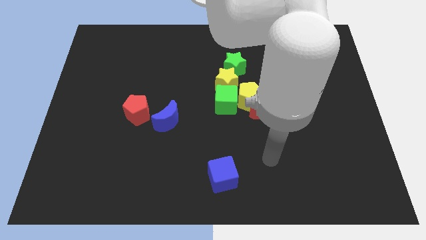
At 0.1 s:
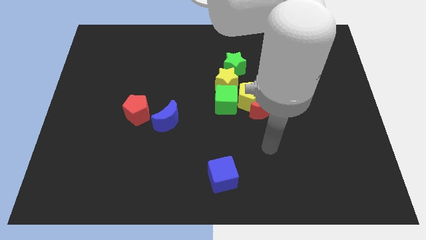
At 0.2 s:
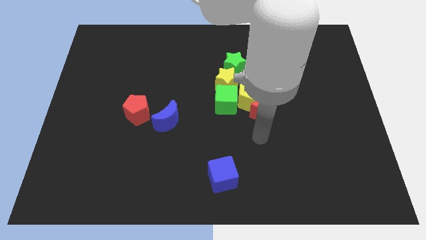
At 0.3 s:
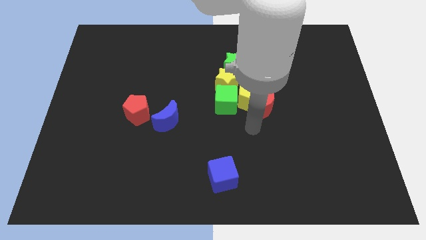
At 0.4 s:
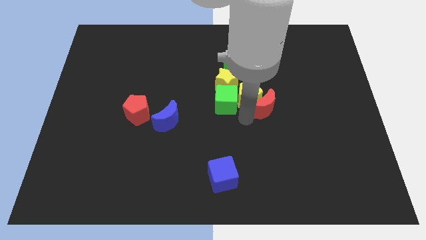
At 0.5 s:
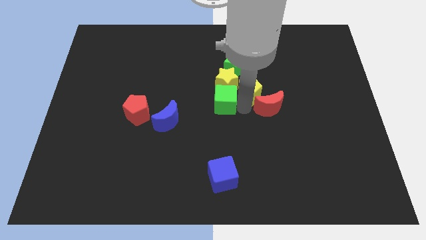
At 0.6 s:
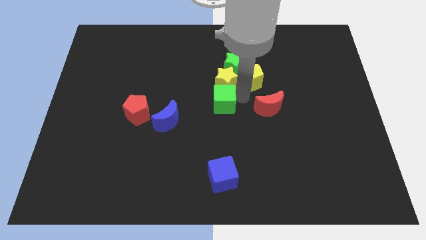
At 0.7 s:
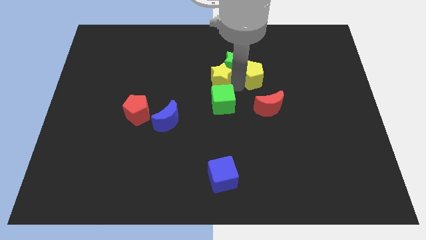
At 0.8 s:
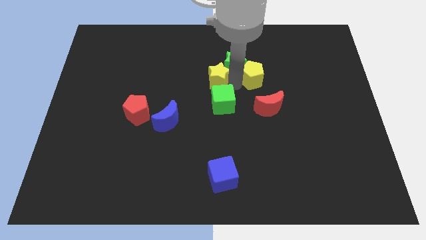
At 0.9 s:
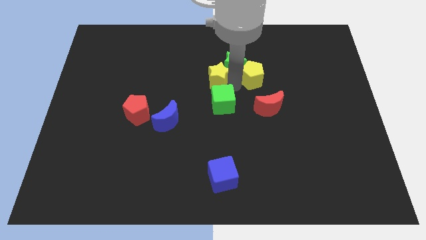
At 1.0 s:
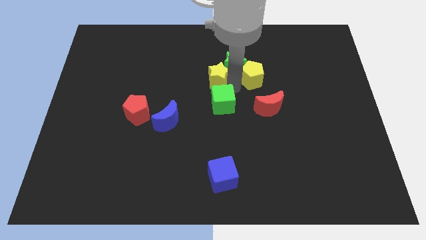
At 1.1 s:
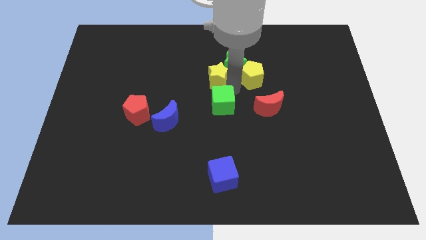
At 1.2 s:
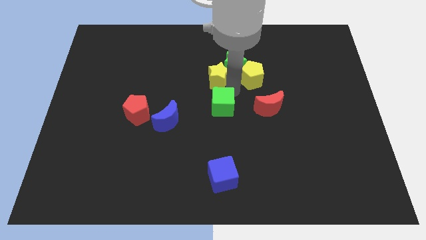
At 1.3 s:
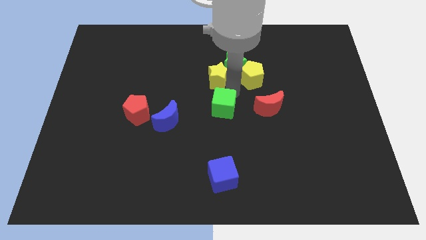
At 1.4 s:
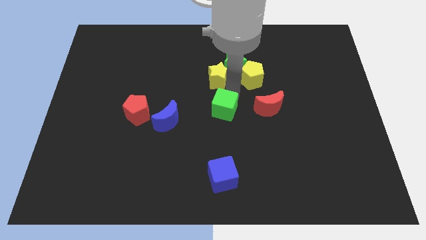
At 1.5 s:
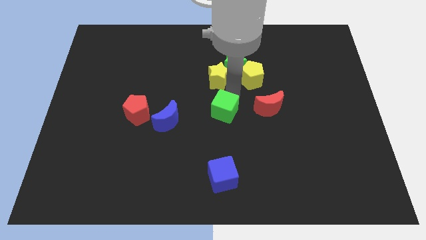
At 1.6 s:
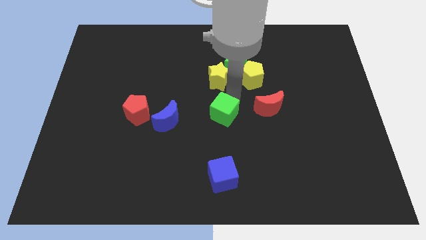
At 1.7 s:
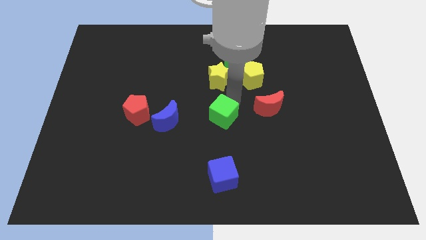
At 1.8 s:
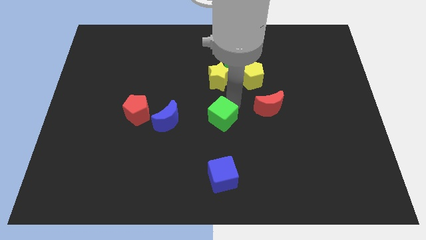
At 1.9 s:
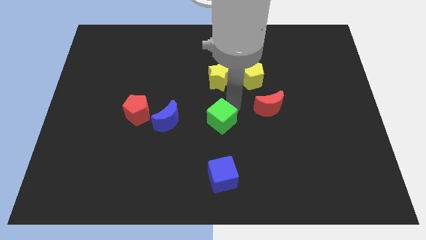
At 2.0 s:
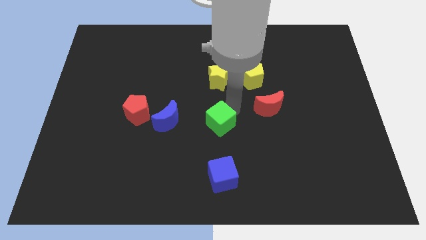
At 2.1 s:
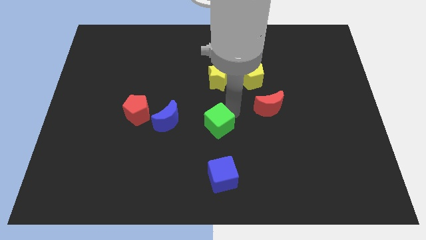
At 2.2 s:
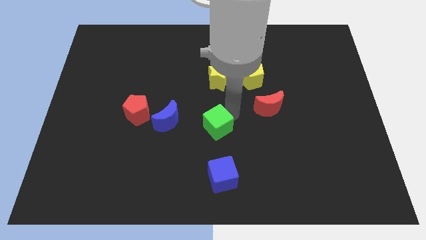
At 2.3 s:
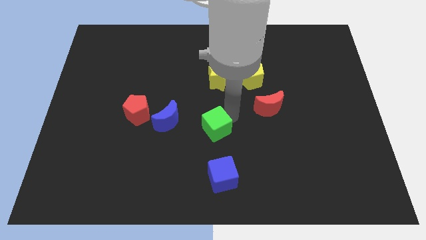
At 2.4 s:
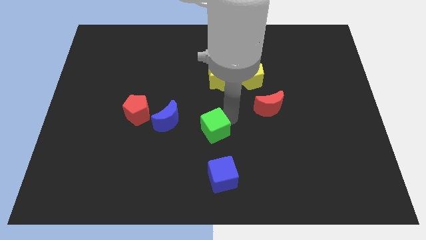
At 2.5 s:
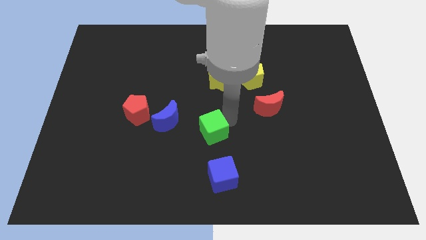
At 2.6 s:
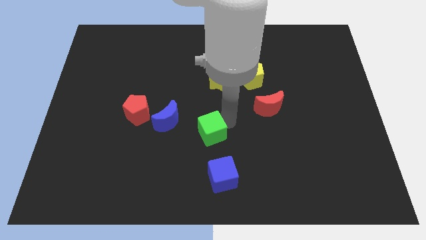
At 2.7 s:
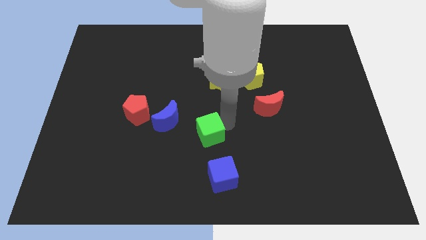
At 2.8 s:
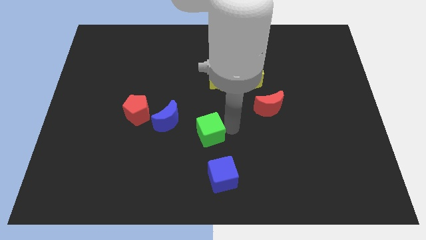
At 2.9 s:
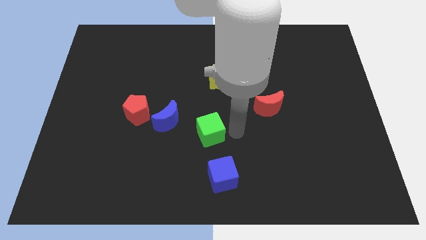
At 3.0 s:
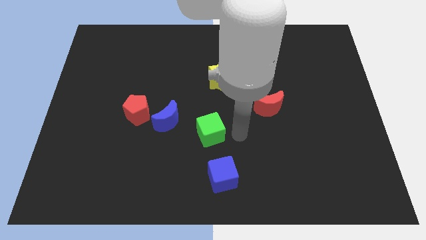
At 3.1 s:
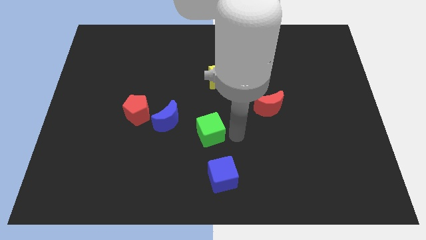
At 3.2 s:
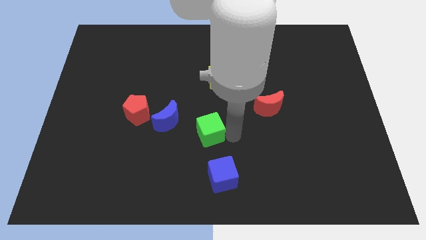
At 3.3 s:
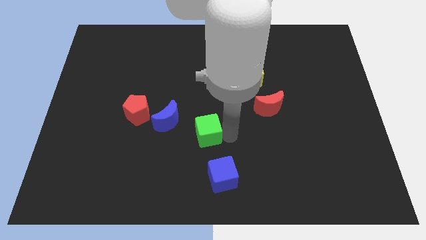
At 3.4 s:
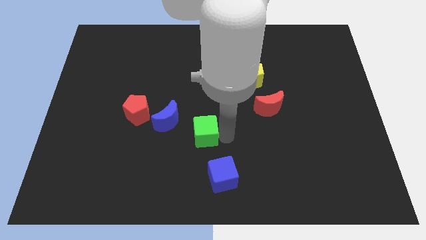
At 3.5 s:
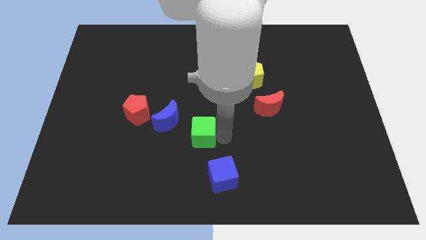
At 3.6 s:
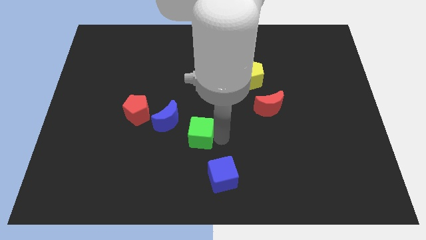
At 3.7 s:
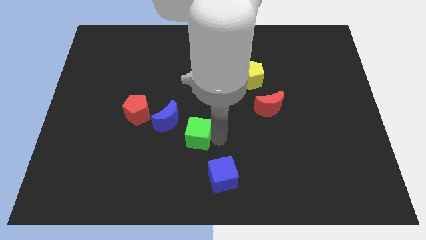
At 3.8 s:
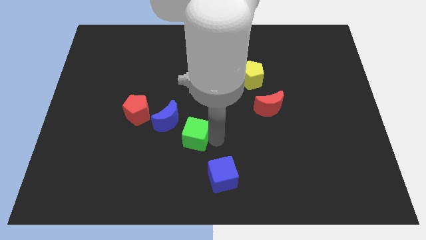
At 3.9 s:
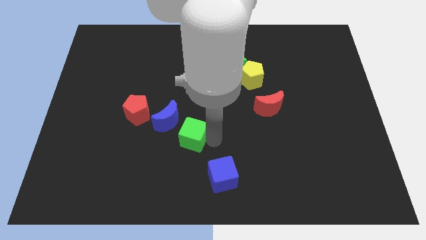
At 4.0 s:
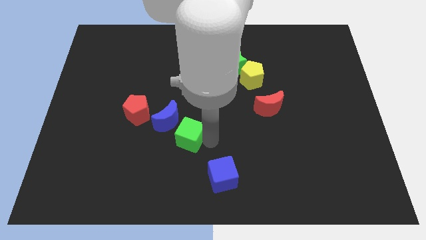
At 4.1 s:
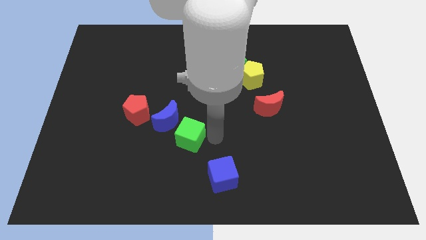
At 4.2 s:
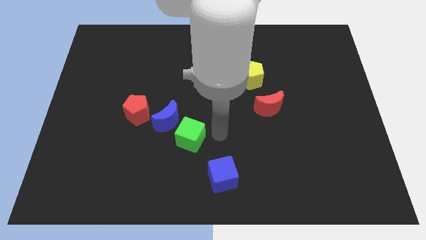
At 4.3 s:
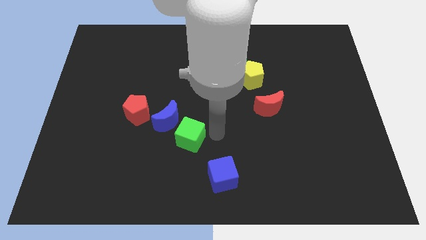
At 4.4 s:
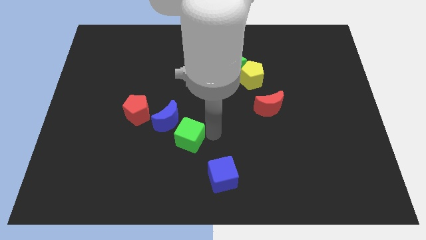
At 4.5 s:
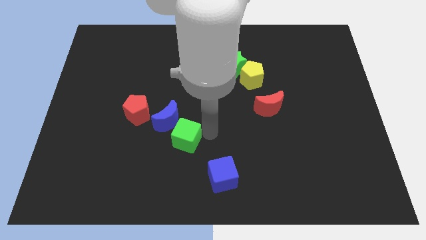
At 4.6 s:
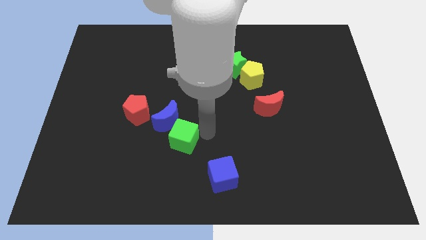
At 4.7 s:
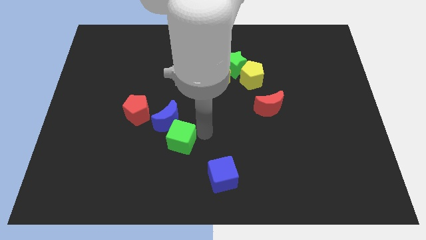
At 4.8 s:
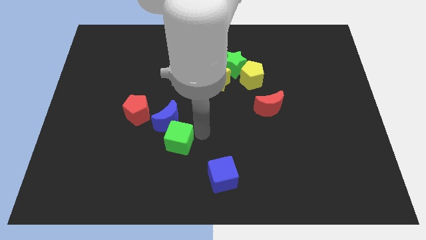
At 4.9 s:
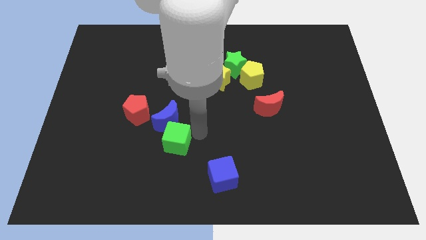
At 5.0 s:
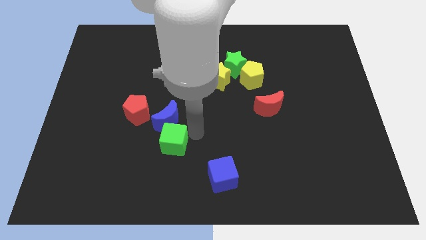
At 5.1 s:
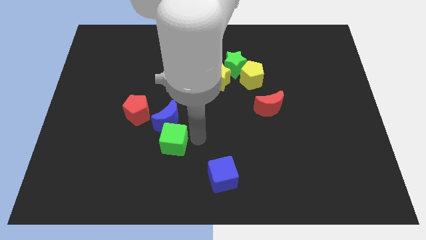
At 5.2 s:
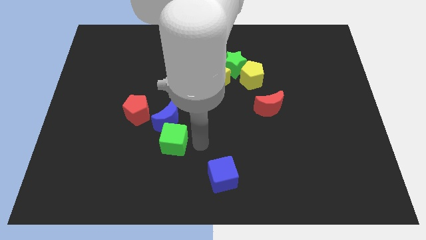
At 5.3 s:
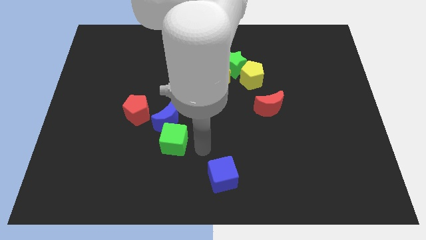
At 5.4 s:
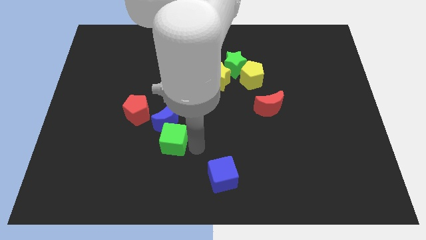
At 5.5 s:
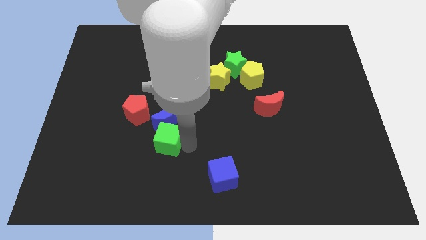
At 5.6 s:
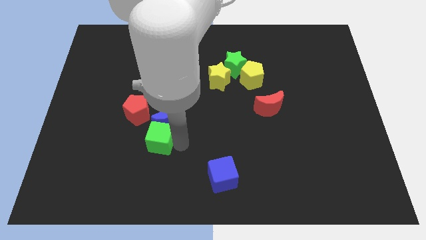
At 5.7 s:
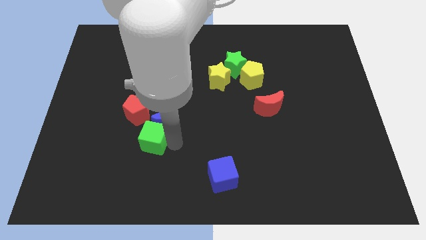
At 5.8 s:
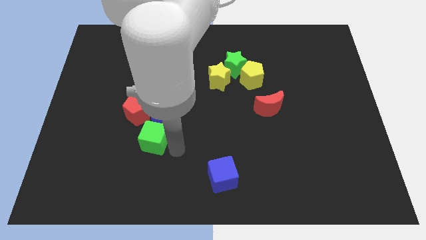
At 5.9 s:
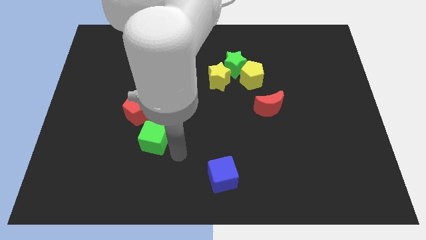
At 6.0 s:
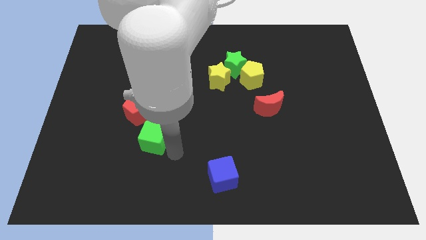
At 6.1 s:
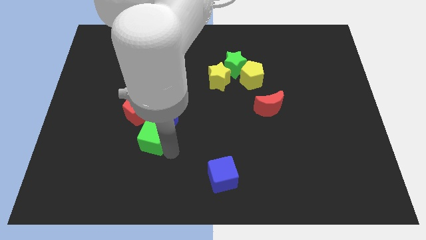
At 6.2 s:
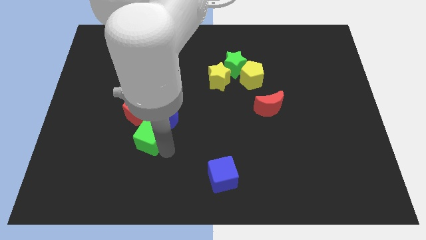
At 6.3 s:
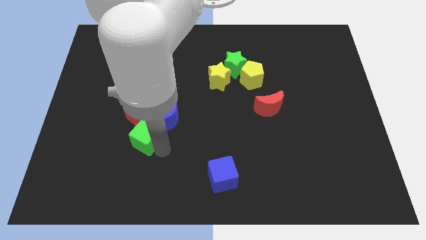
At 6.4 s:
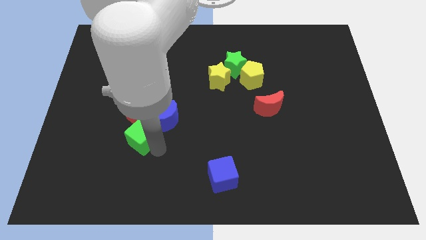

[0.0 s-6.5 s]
push the green cube to the left of the blue moon

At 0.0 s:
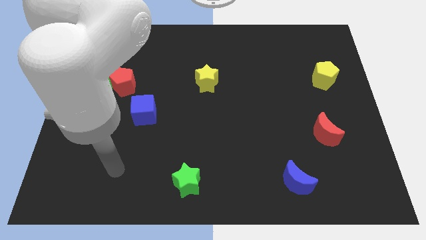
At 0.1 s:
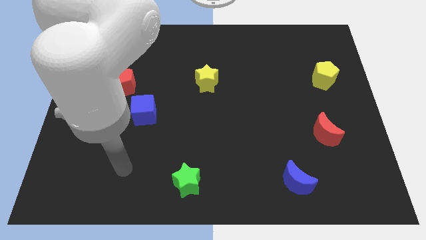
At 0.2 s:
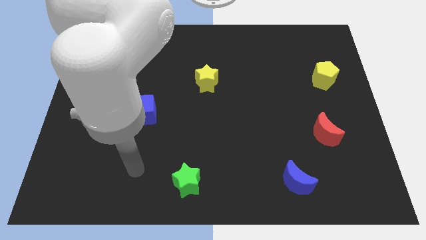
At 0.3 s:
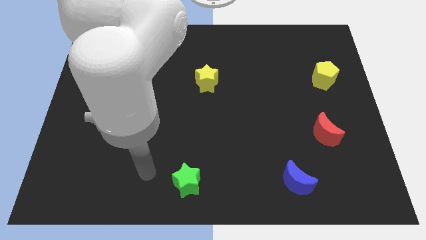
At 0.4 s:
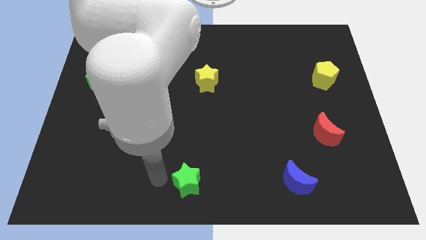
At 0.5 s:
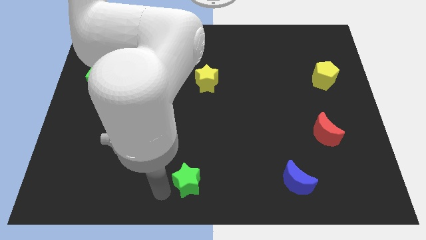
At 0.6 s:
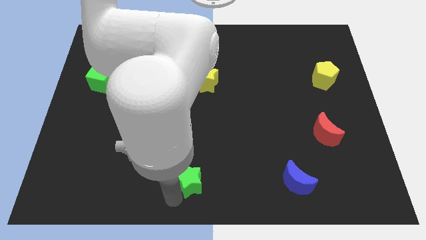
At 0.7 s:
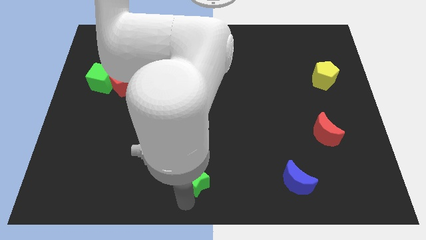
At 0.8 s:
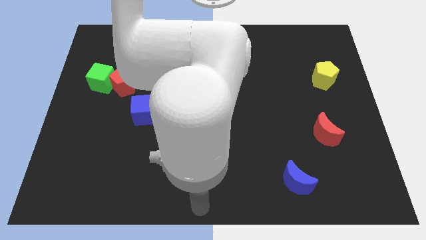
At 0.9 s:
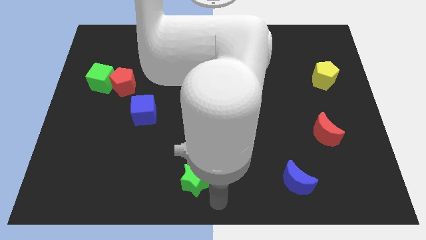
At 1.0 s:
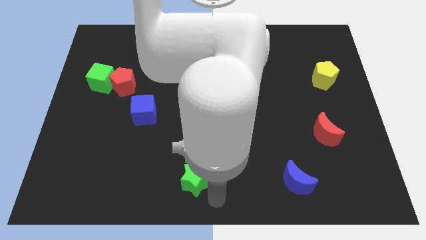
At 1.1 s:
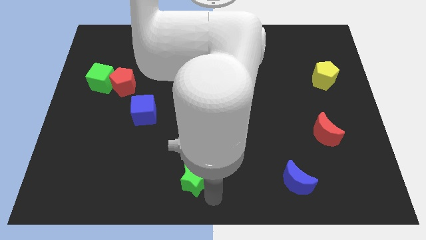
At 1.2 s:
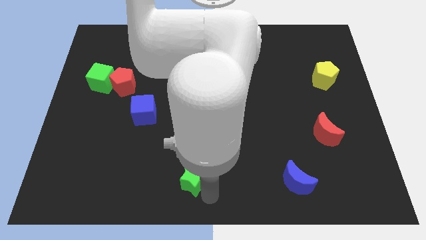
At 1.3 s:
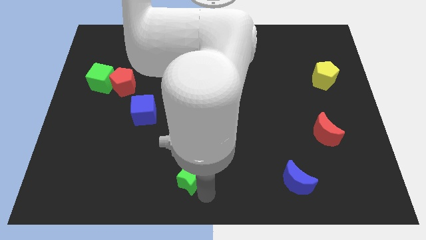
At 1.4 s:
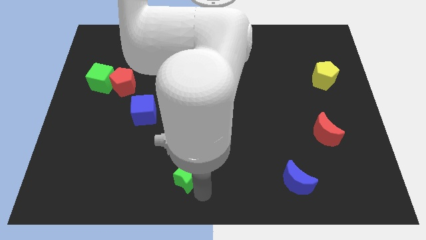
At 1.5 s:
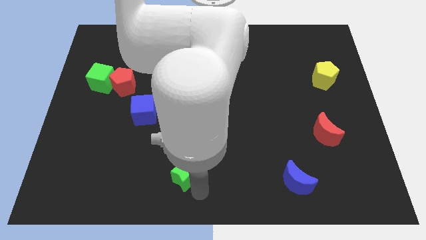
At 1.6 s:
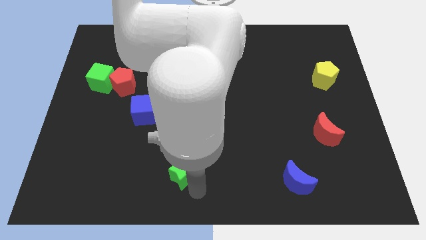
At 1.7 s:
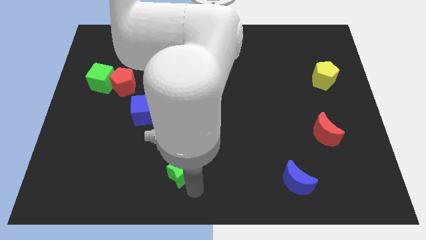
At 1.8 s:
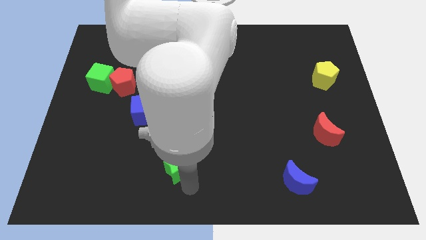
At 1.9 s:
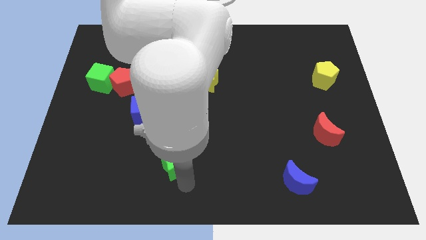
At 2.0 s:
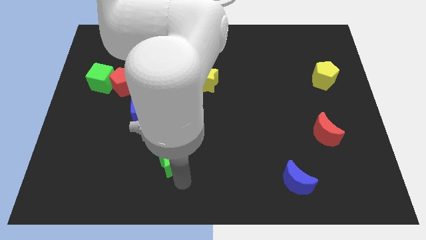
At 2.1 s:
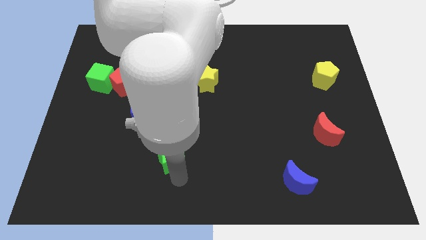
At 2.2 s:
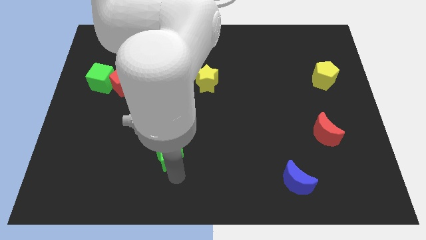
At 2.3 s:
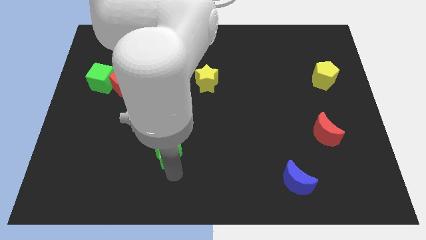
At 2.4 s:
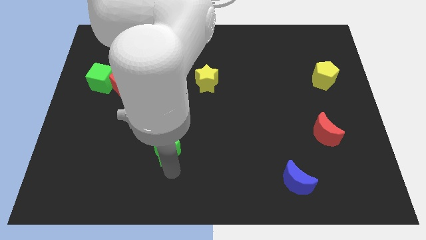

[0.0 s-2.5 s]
push the green star diagonally down and to the right of the blue cube
